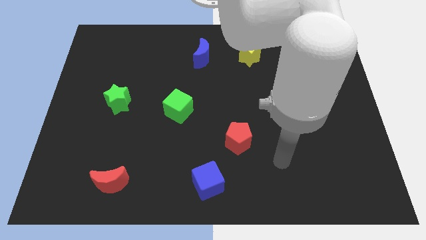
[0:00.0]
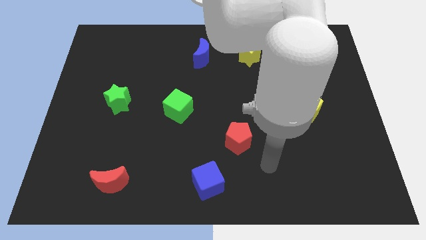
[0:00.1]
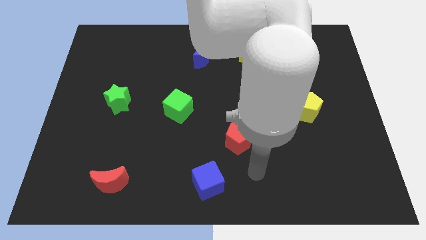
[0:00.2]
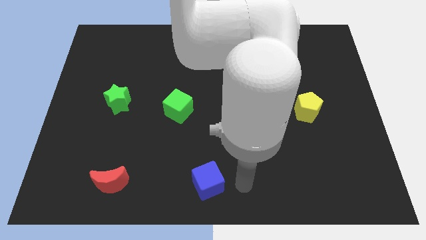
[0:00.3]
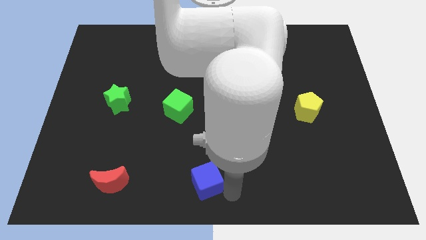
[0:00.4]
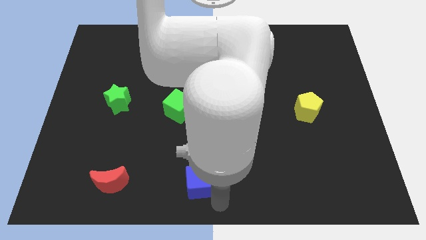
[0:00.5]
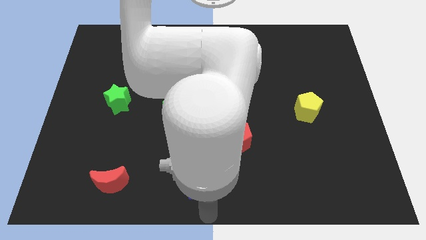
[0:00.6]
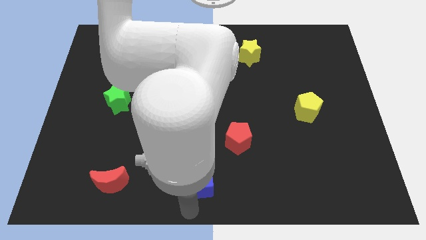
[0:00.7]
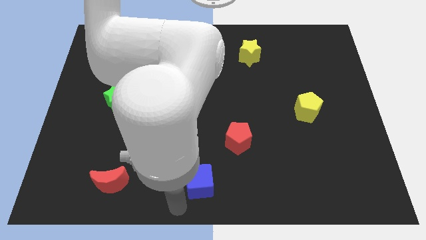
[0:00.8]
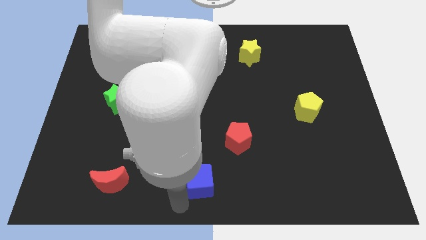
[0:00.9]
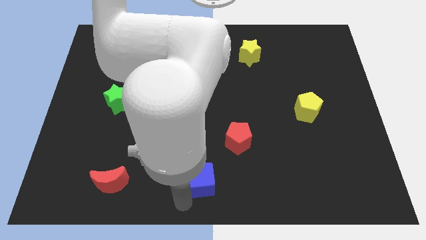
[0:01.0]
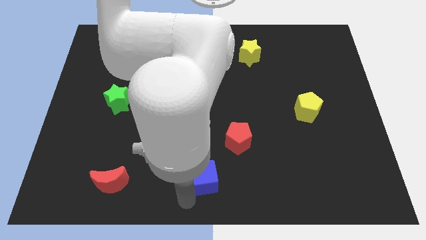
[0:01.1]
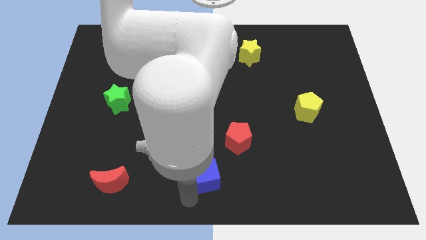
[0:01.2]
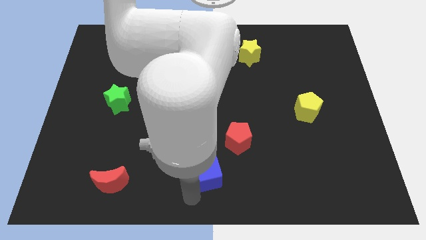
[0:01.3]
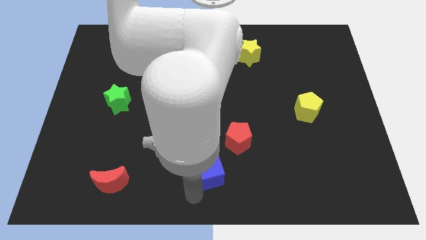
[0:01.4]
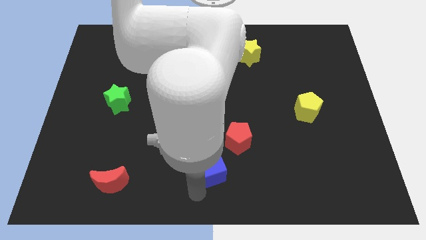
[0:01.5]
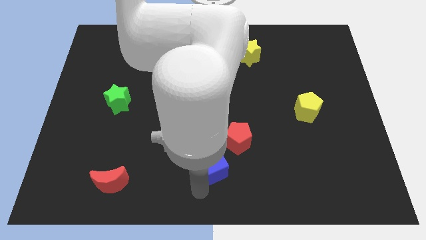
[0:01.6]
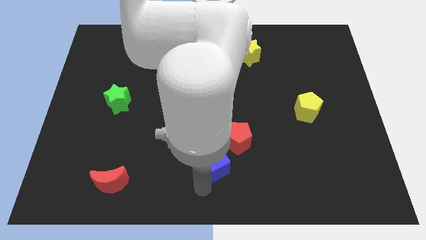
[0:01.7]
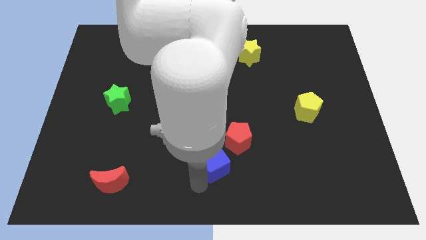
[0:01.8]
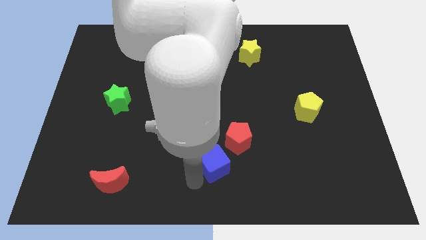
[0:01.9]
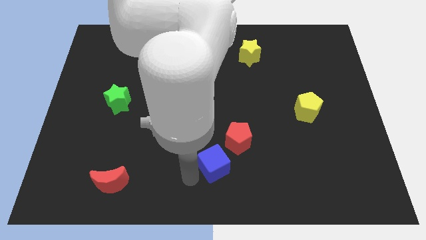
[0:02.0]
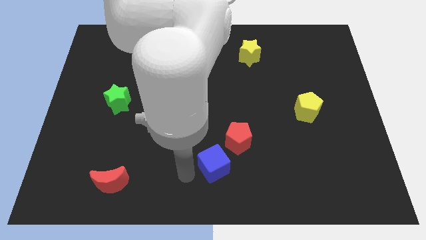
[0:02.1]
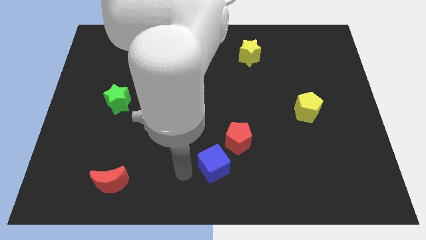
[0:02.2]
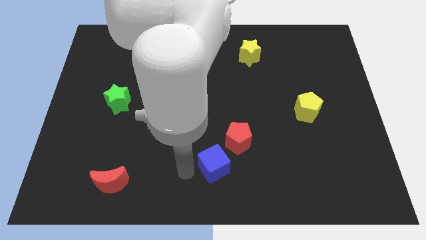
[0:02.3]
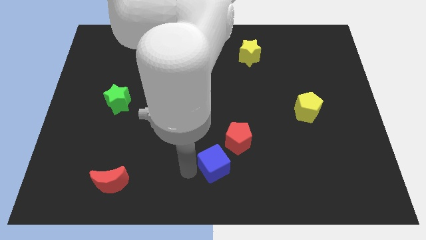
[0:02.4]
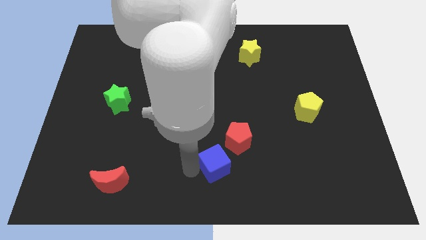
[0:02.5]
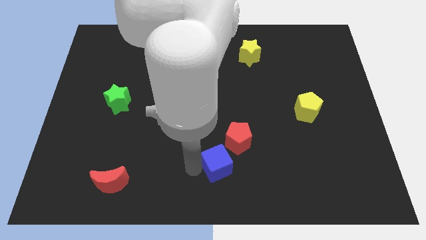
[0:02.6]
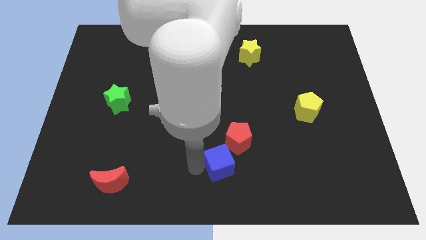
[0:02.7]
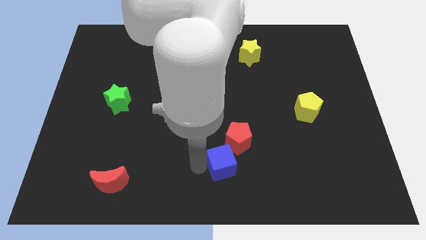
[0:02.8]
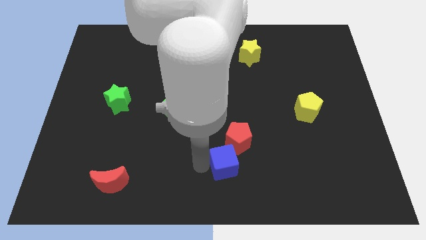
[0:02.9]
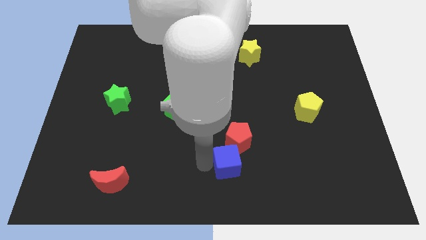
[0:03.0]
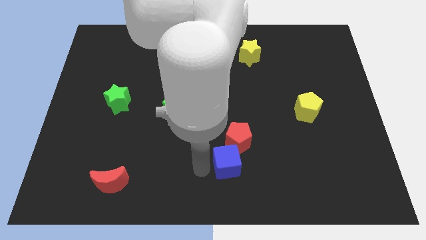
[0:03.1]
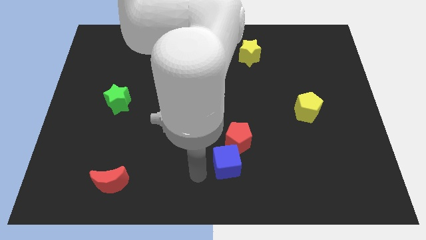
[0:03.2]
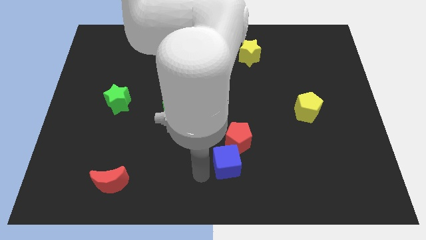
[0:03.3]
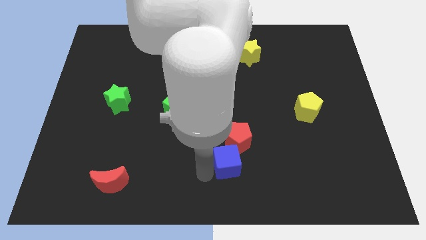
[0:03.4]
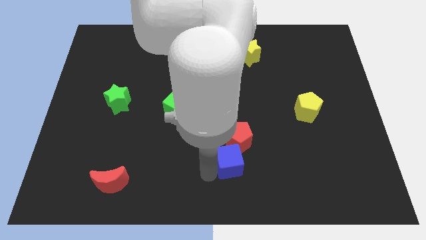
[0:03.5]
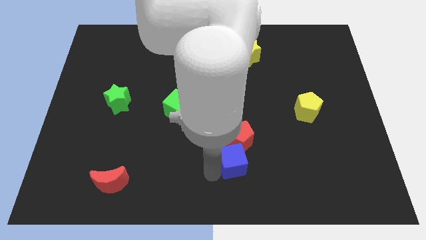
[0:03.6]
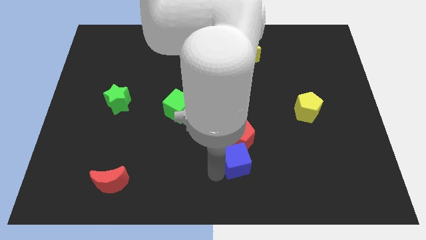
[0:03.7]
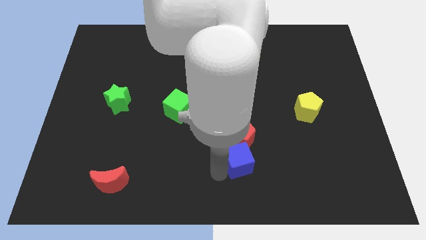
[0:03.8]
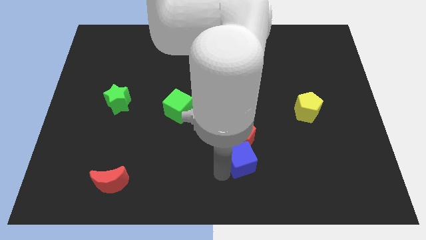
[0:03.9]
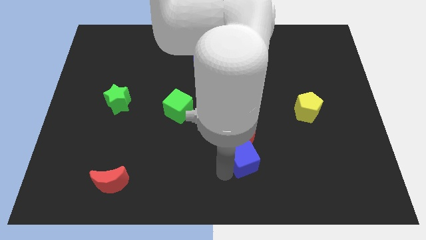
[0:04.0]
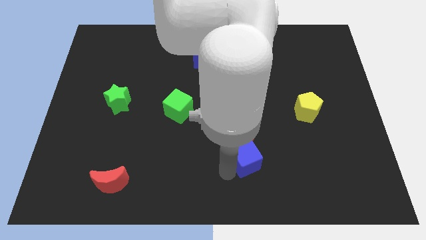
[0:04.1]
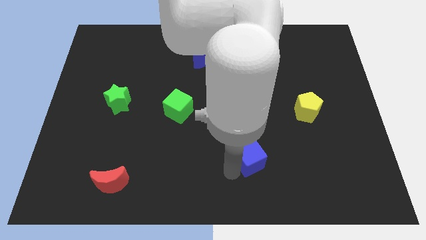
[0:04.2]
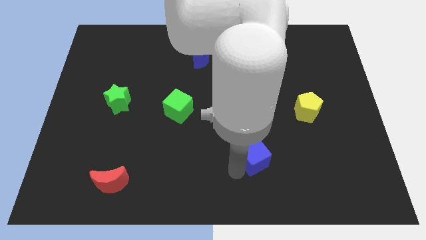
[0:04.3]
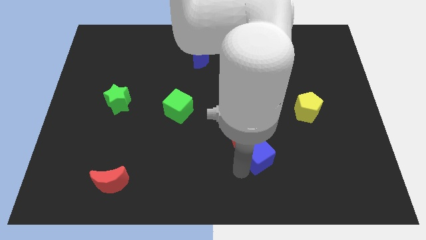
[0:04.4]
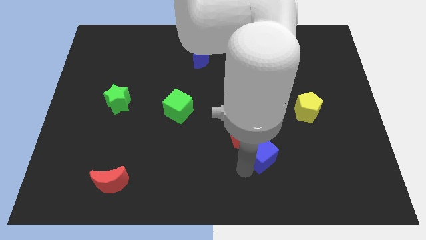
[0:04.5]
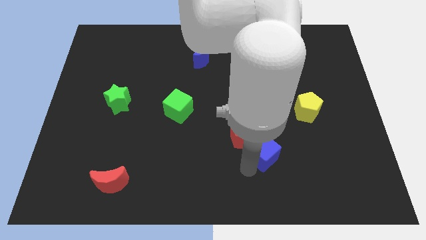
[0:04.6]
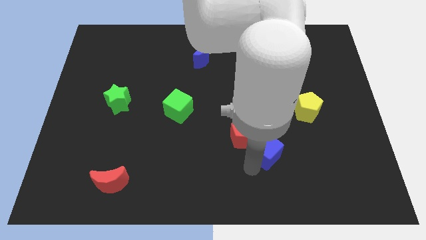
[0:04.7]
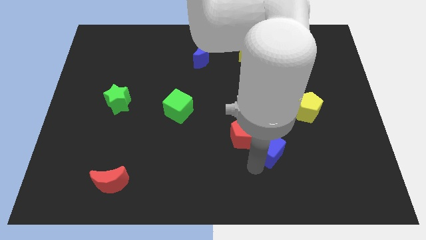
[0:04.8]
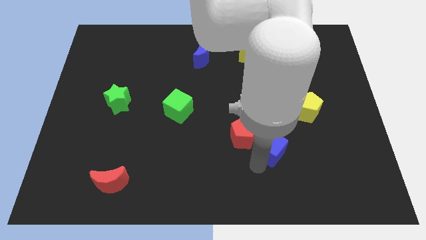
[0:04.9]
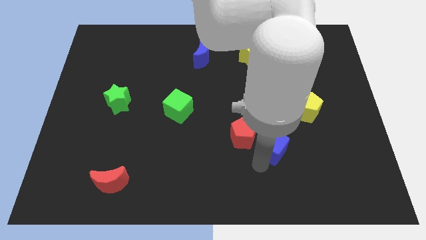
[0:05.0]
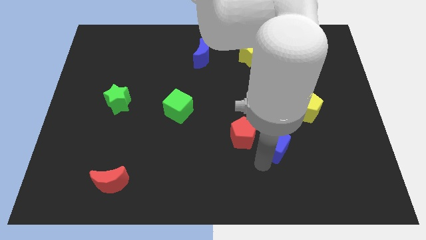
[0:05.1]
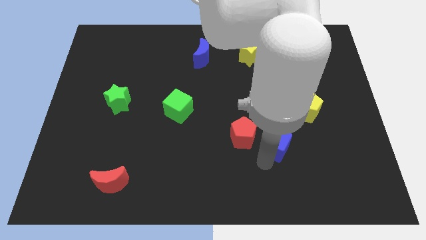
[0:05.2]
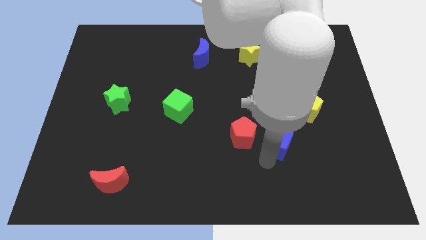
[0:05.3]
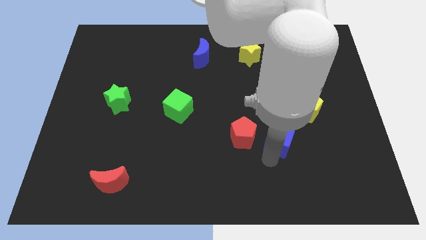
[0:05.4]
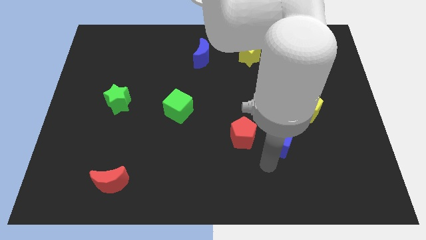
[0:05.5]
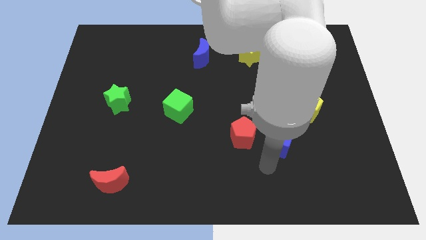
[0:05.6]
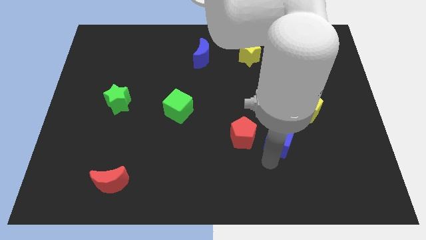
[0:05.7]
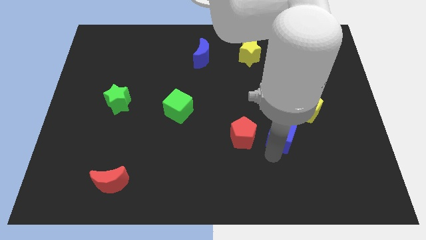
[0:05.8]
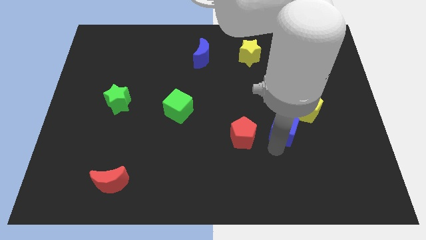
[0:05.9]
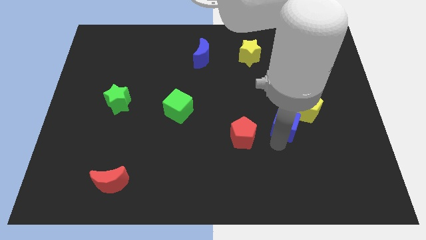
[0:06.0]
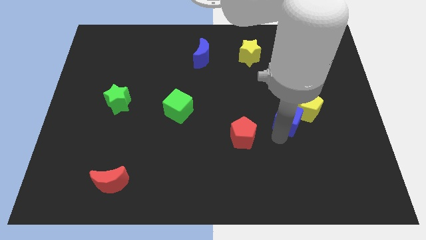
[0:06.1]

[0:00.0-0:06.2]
push the blue cube to the yellow pentagon
